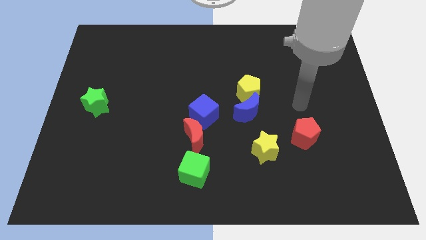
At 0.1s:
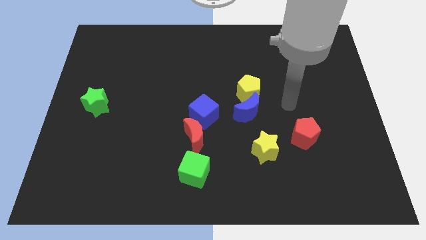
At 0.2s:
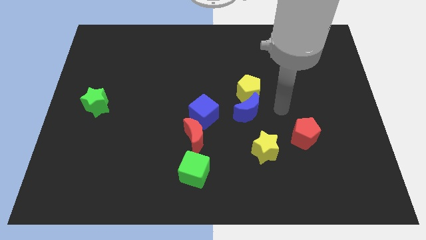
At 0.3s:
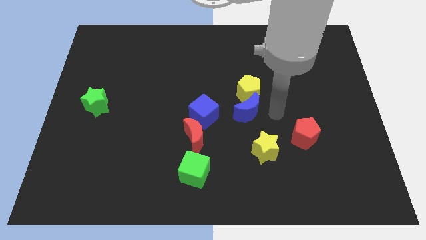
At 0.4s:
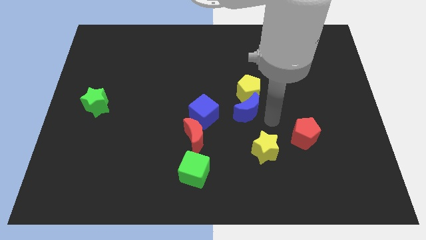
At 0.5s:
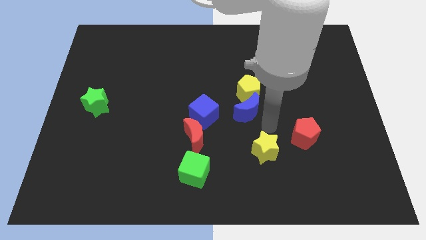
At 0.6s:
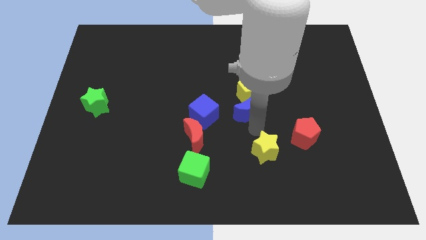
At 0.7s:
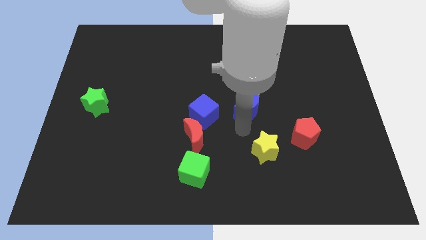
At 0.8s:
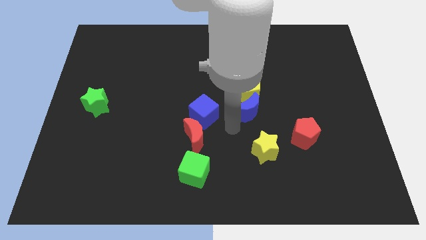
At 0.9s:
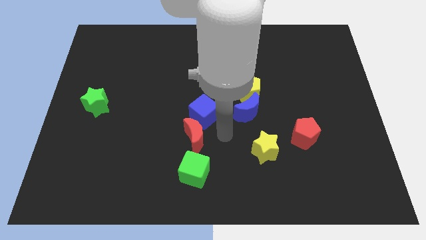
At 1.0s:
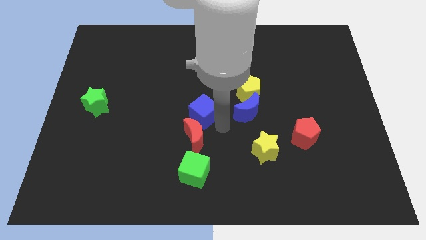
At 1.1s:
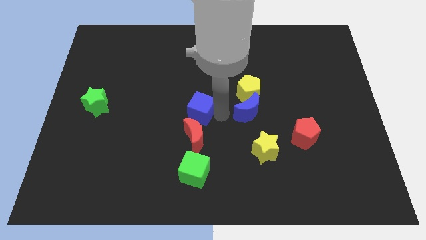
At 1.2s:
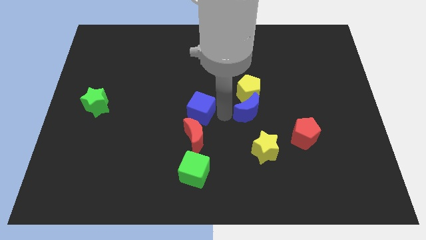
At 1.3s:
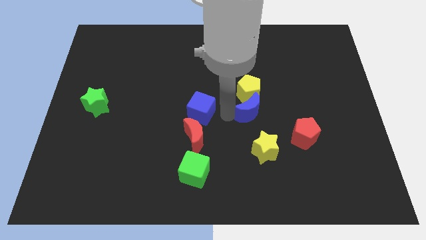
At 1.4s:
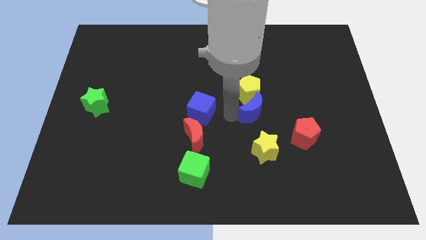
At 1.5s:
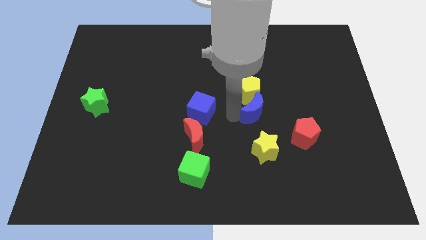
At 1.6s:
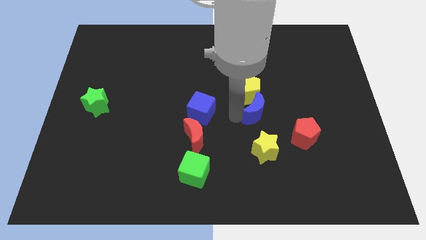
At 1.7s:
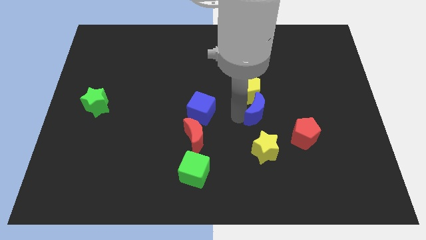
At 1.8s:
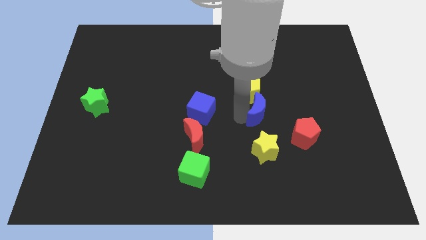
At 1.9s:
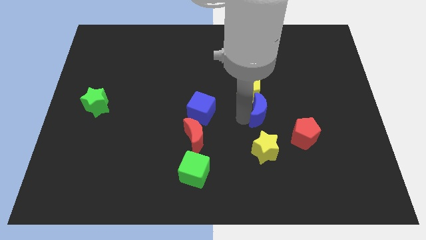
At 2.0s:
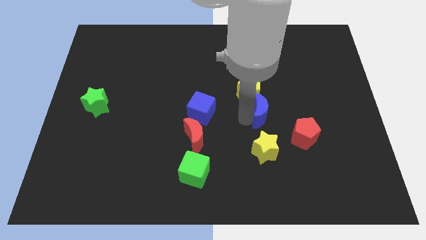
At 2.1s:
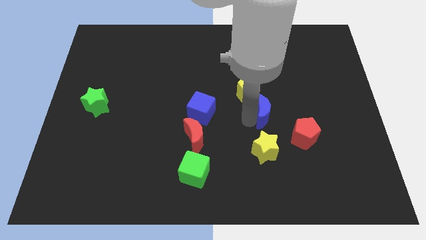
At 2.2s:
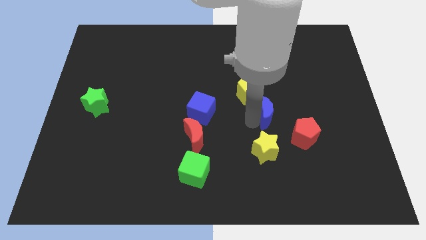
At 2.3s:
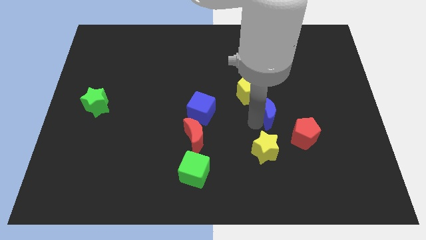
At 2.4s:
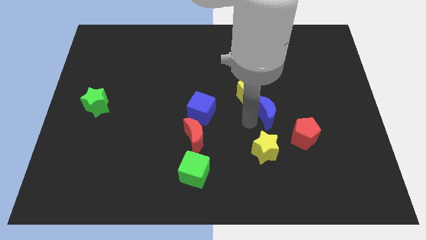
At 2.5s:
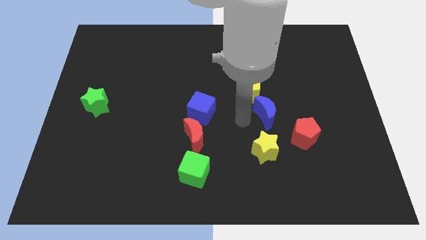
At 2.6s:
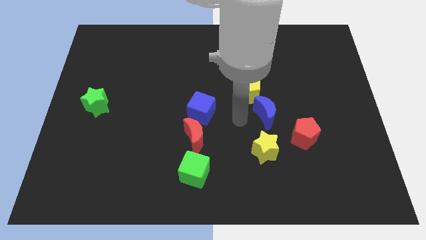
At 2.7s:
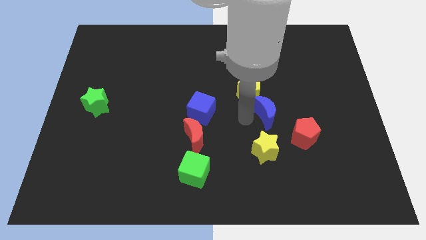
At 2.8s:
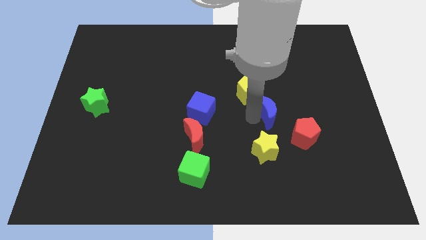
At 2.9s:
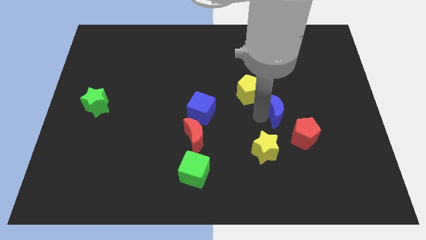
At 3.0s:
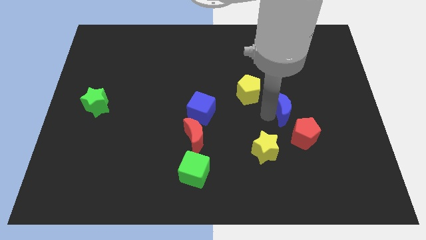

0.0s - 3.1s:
slide the blue moon to the right a little bit

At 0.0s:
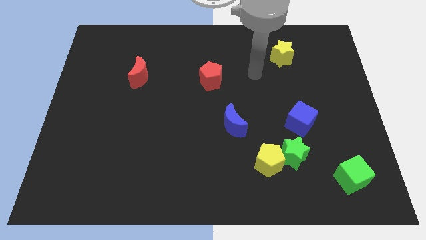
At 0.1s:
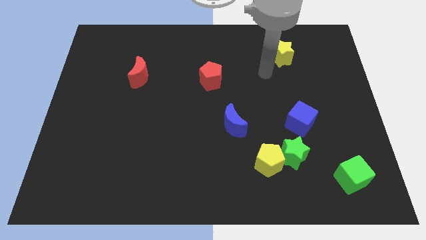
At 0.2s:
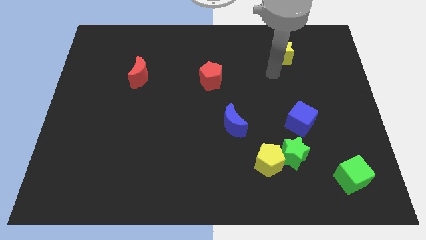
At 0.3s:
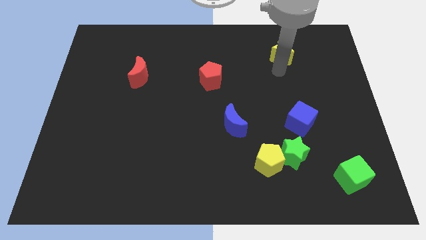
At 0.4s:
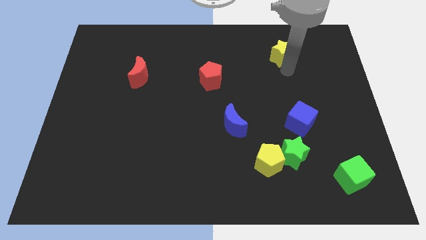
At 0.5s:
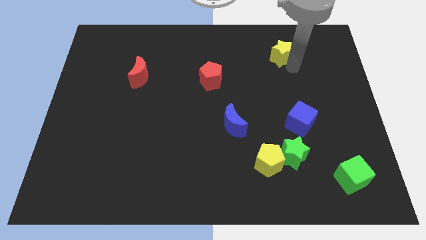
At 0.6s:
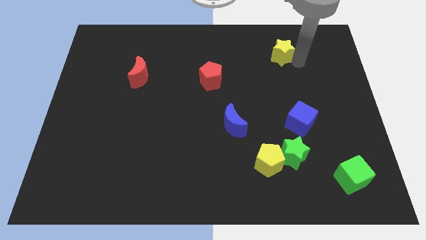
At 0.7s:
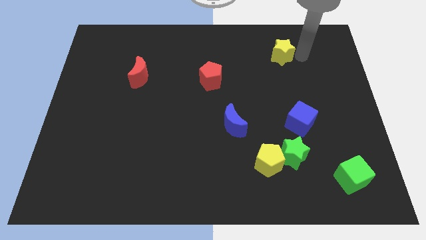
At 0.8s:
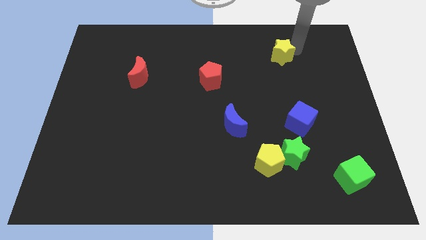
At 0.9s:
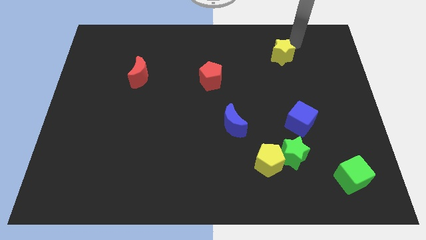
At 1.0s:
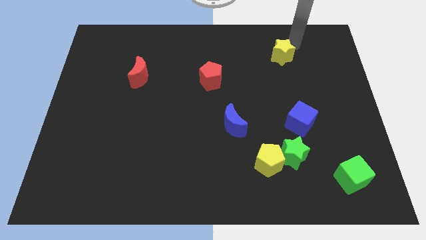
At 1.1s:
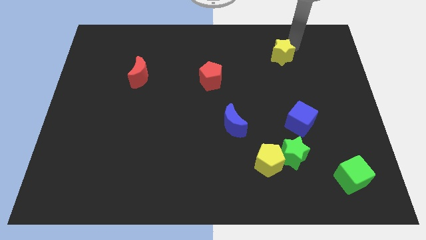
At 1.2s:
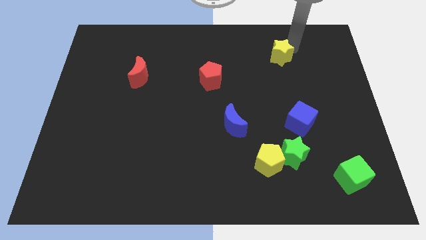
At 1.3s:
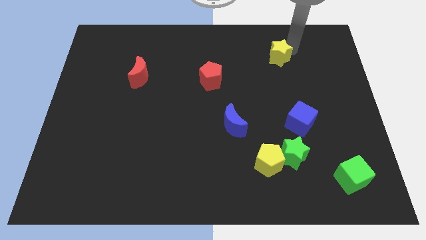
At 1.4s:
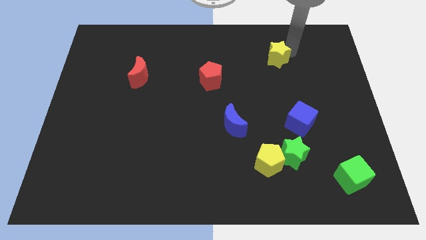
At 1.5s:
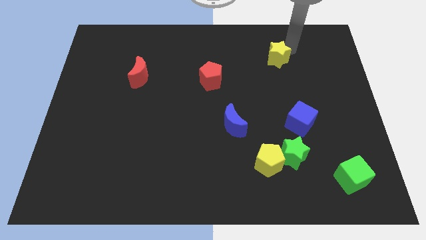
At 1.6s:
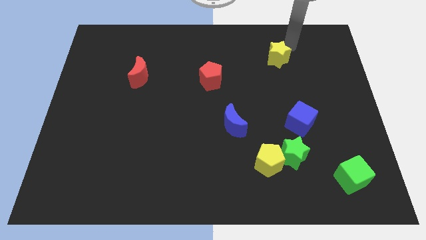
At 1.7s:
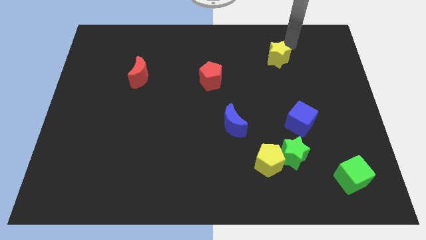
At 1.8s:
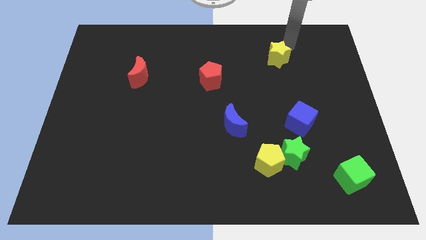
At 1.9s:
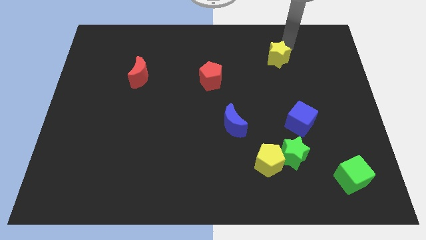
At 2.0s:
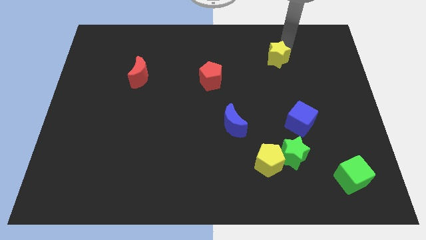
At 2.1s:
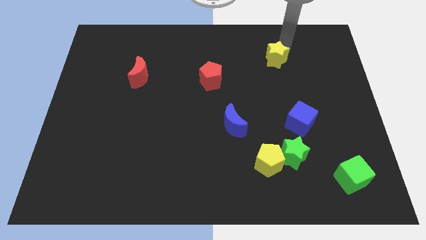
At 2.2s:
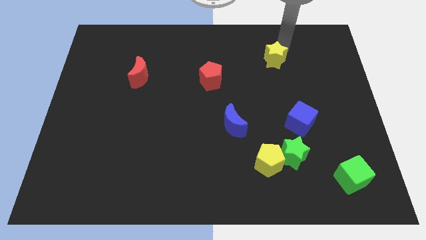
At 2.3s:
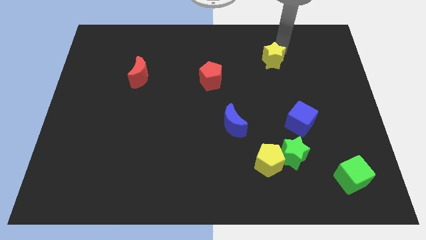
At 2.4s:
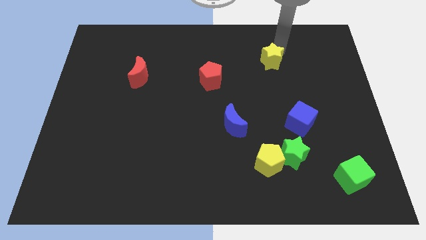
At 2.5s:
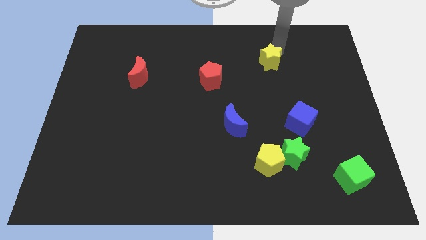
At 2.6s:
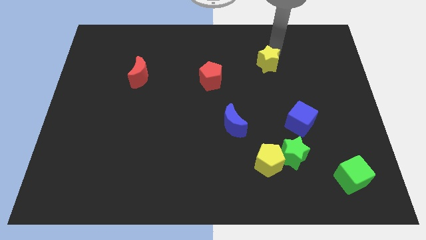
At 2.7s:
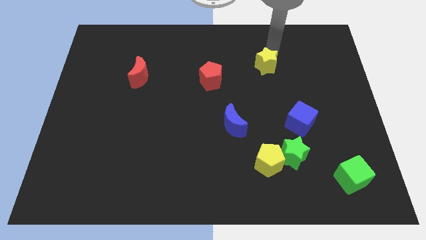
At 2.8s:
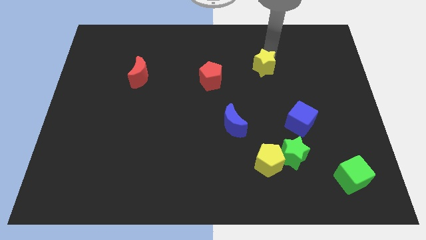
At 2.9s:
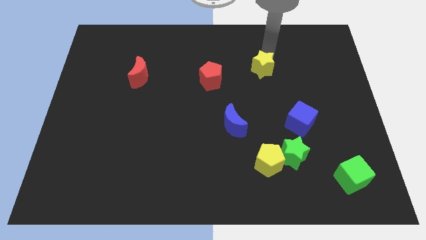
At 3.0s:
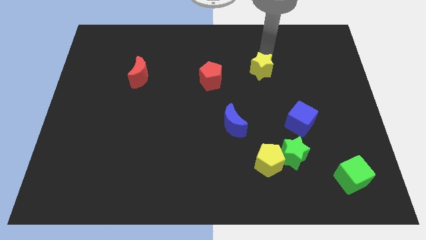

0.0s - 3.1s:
slightly push the yellow star down and then to the left

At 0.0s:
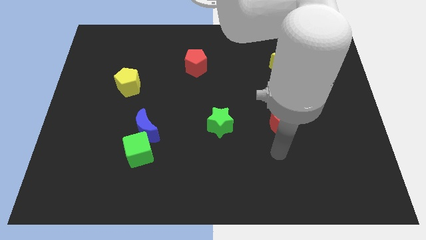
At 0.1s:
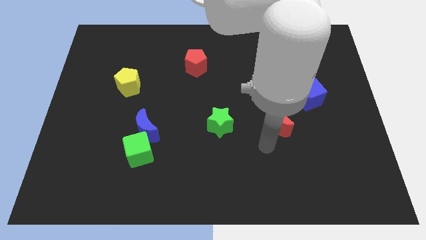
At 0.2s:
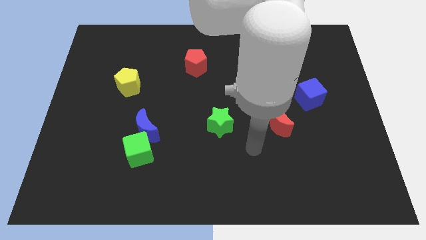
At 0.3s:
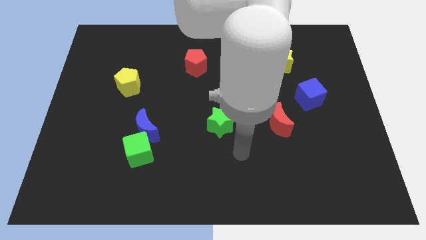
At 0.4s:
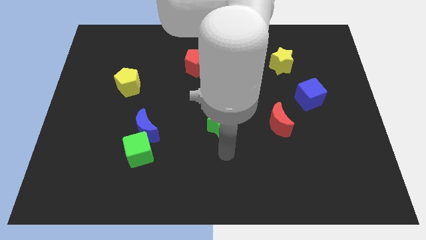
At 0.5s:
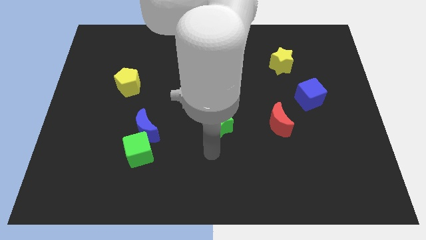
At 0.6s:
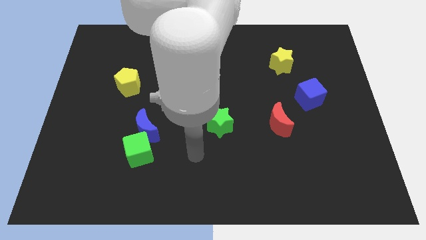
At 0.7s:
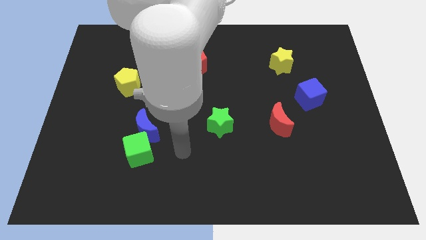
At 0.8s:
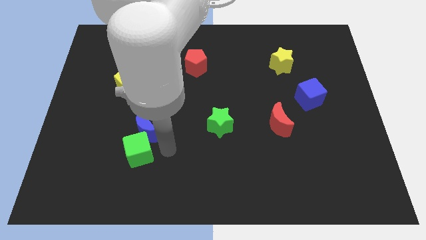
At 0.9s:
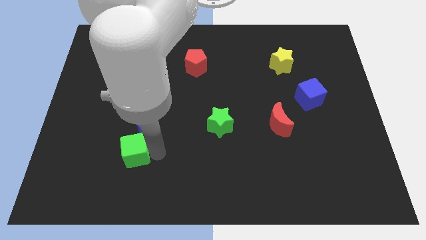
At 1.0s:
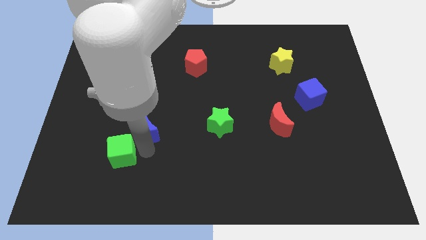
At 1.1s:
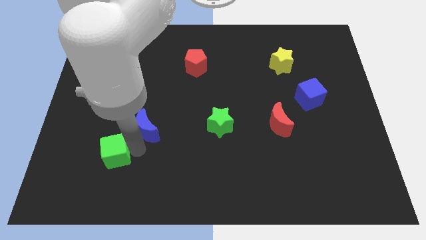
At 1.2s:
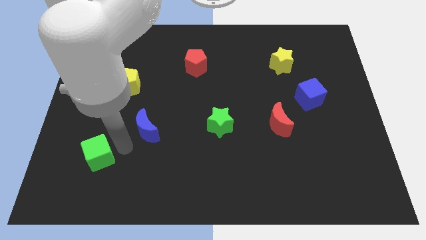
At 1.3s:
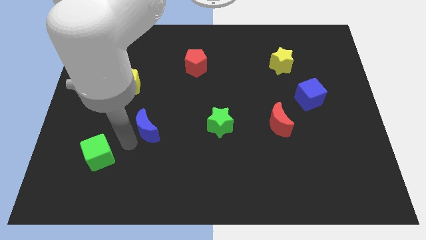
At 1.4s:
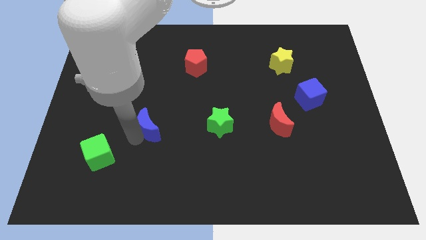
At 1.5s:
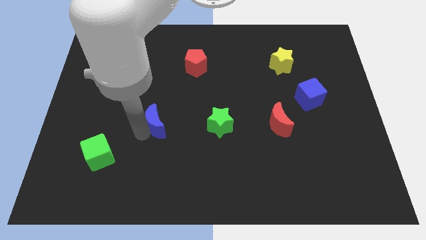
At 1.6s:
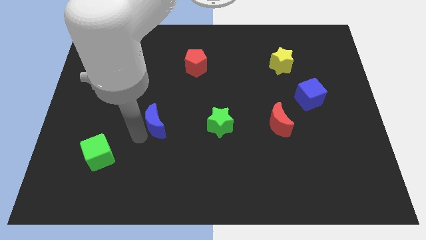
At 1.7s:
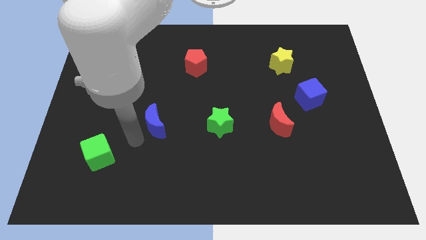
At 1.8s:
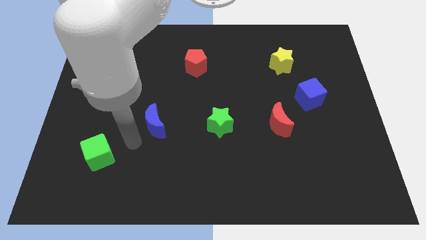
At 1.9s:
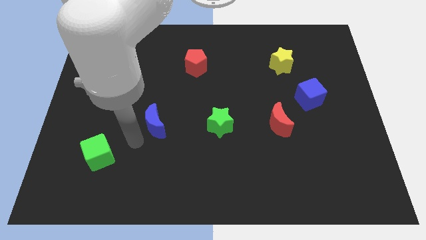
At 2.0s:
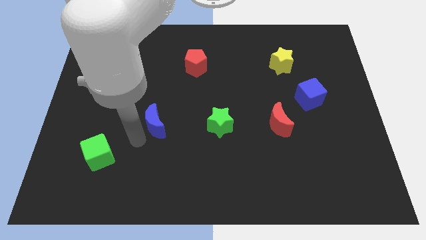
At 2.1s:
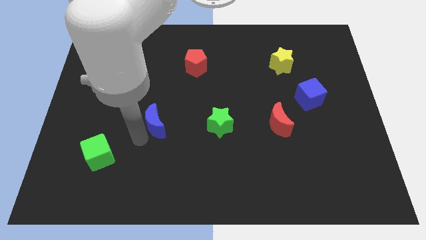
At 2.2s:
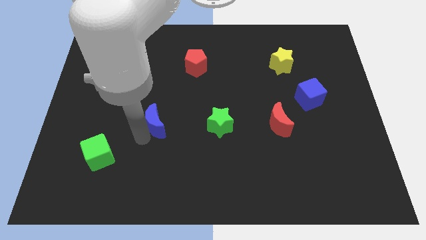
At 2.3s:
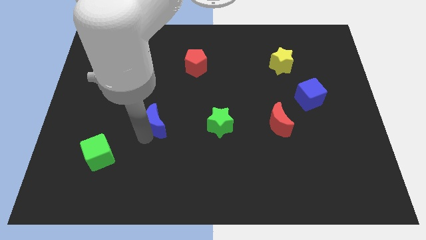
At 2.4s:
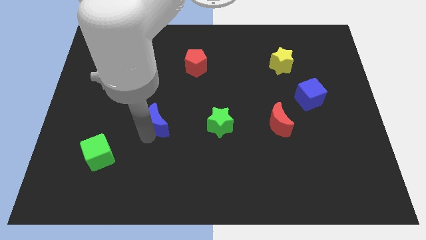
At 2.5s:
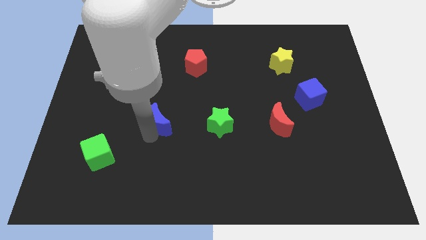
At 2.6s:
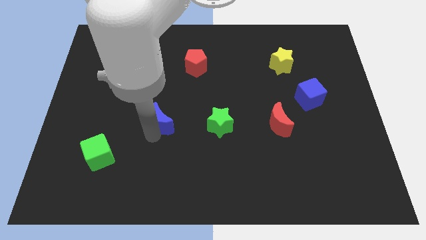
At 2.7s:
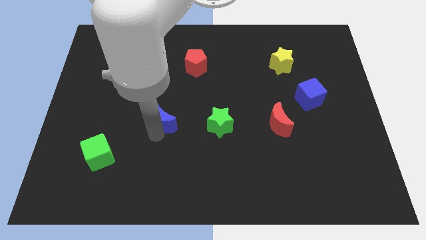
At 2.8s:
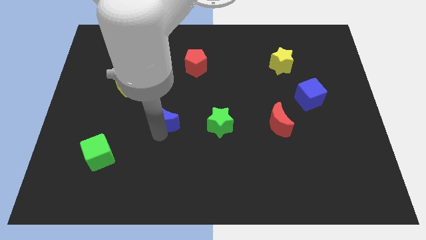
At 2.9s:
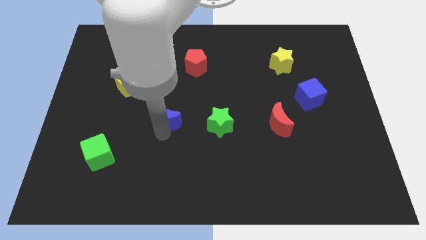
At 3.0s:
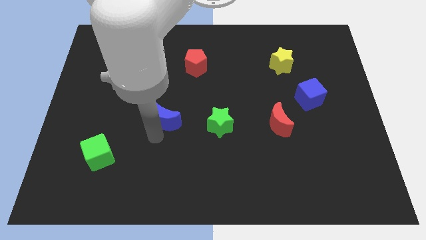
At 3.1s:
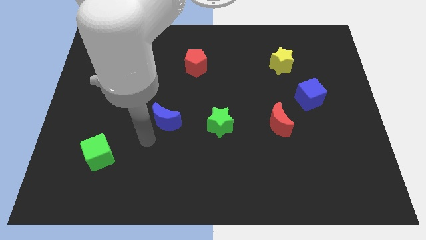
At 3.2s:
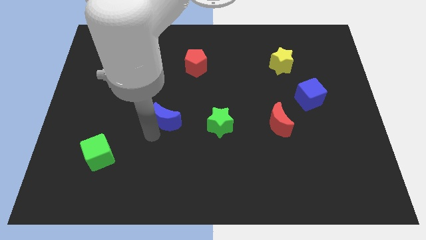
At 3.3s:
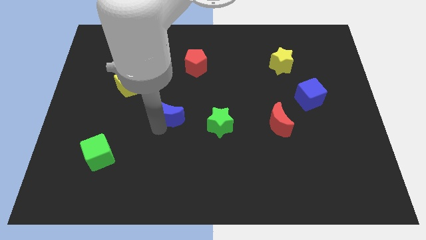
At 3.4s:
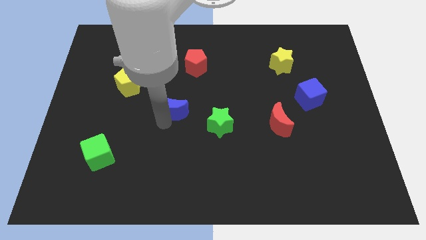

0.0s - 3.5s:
slightly slide the blue moon upwards and then right
